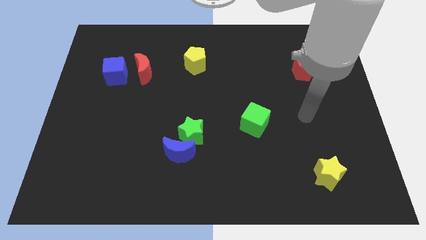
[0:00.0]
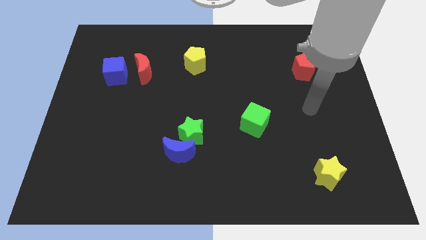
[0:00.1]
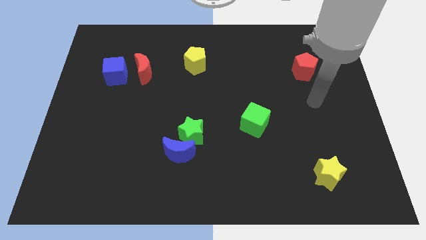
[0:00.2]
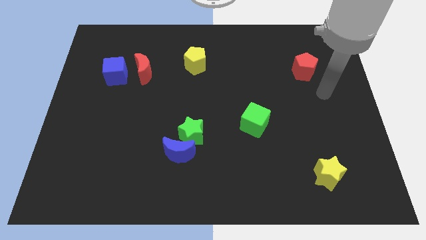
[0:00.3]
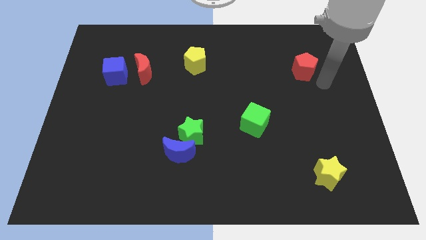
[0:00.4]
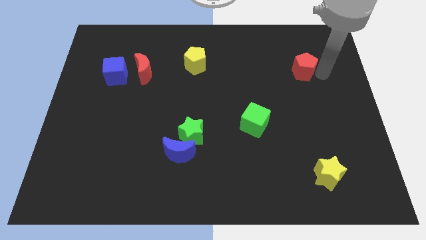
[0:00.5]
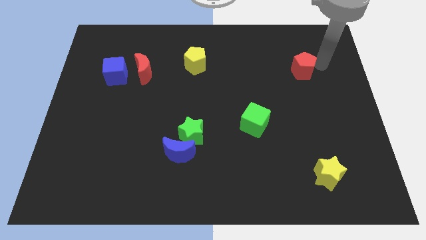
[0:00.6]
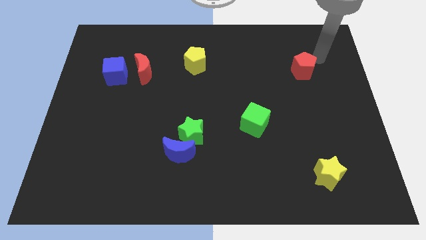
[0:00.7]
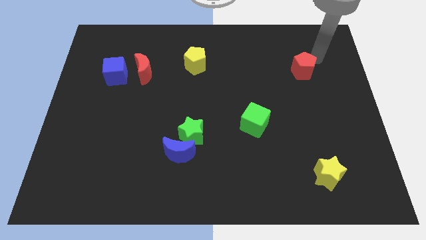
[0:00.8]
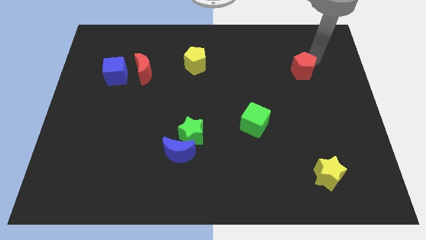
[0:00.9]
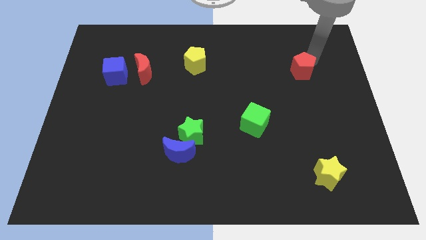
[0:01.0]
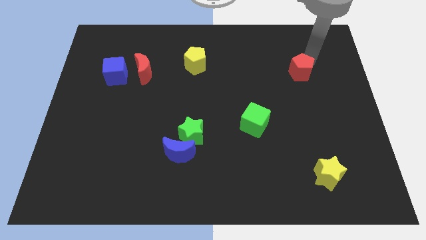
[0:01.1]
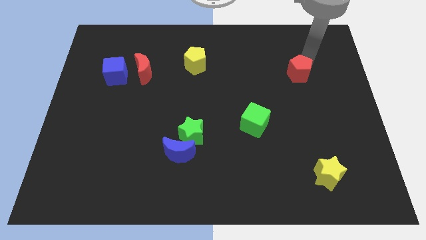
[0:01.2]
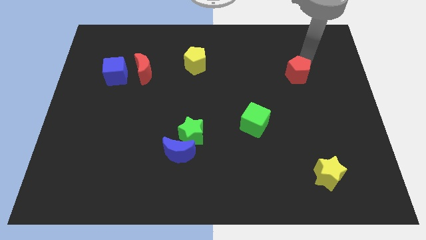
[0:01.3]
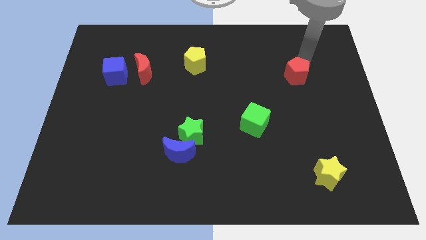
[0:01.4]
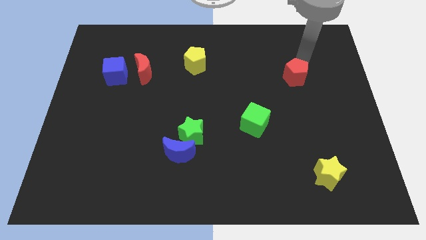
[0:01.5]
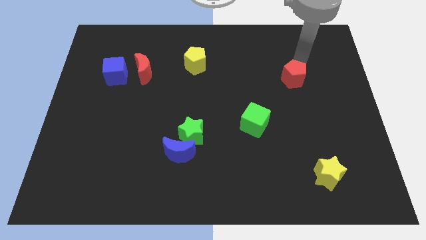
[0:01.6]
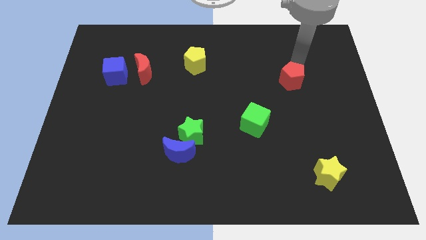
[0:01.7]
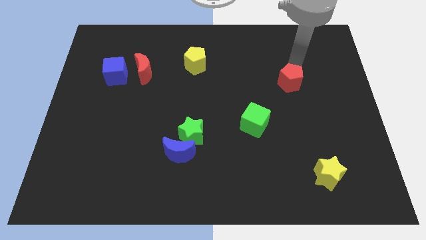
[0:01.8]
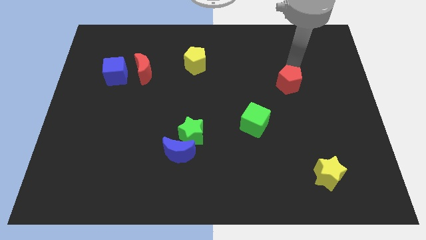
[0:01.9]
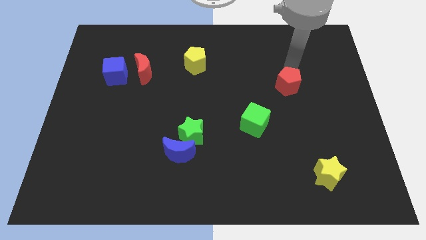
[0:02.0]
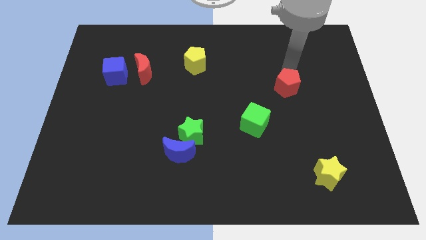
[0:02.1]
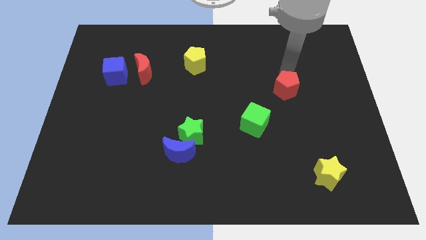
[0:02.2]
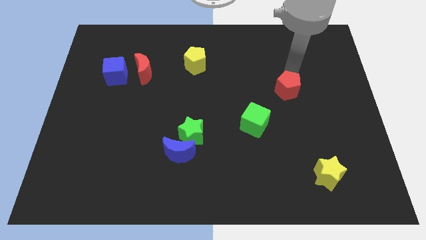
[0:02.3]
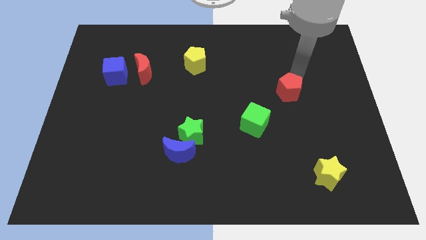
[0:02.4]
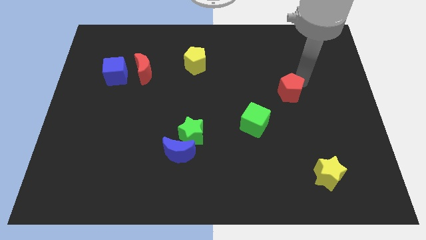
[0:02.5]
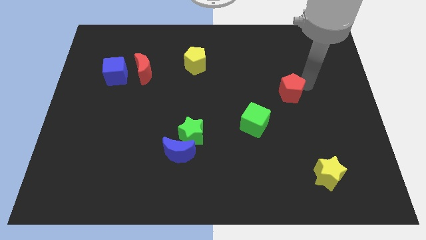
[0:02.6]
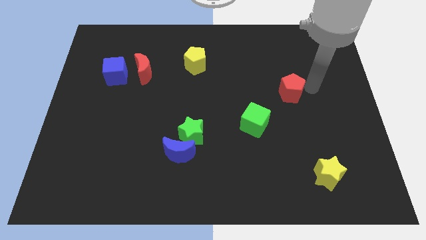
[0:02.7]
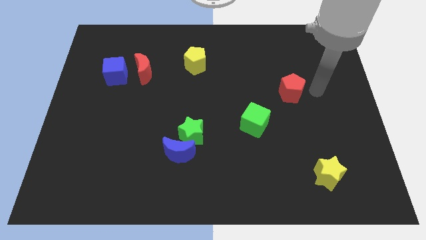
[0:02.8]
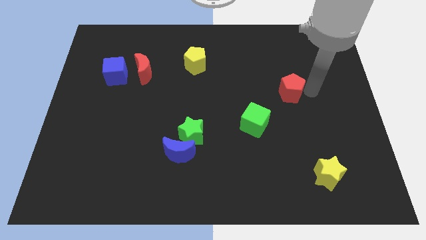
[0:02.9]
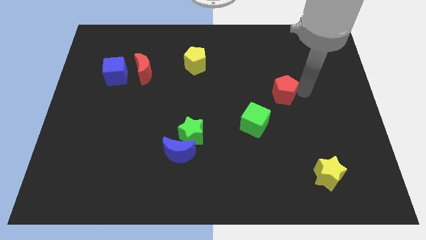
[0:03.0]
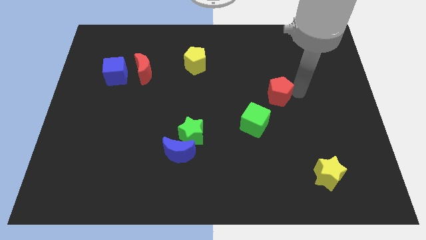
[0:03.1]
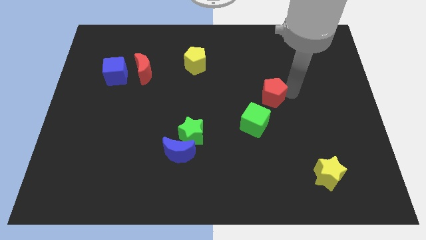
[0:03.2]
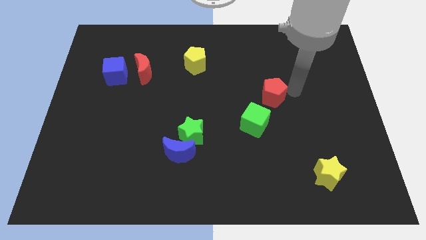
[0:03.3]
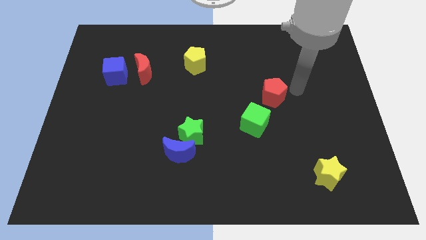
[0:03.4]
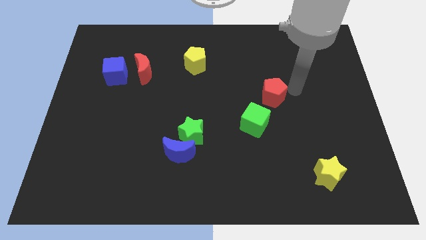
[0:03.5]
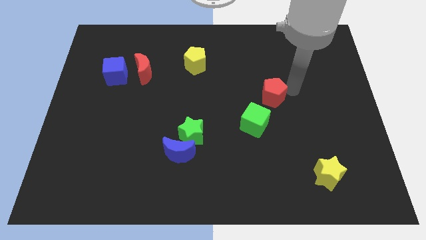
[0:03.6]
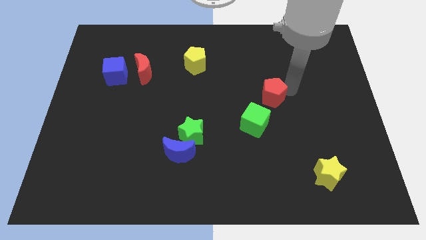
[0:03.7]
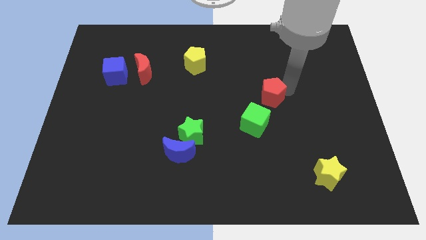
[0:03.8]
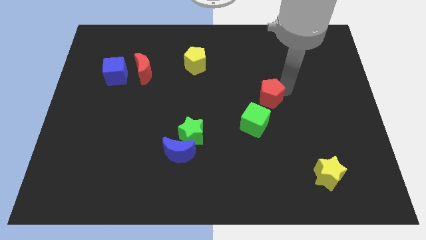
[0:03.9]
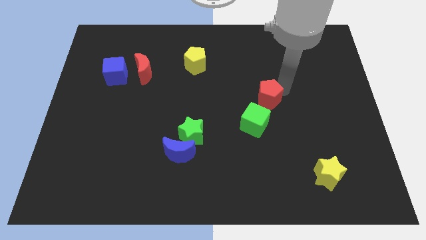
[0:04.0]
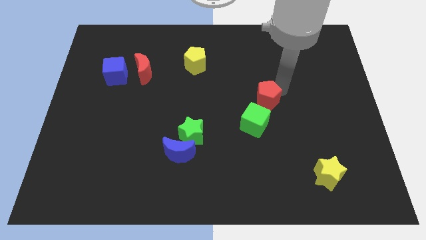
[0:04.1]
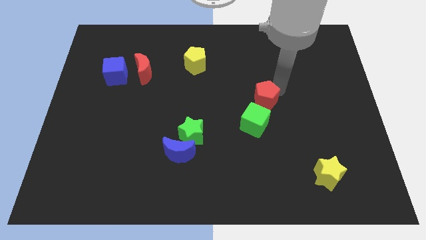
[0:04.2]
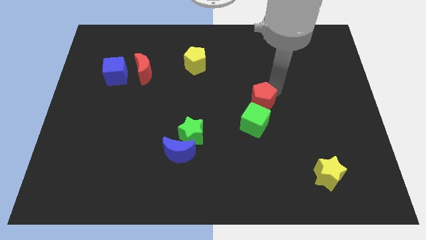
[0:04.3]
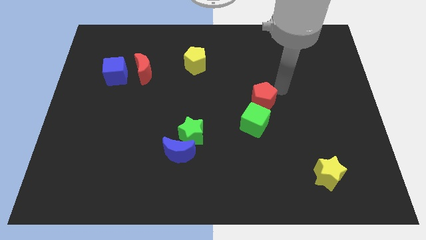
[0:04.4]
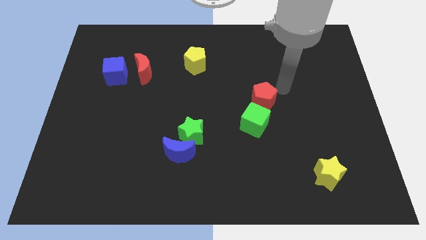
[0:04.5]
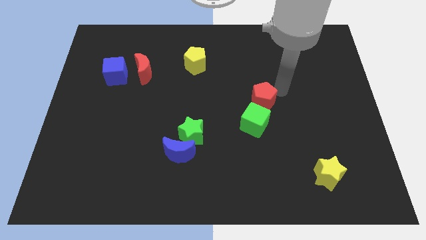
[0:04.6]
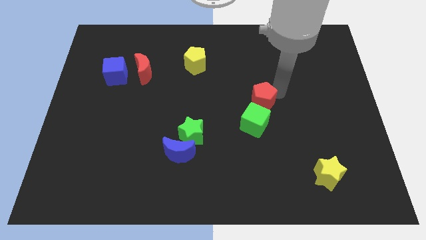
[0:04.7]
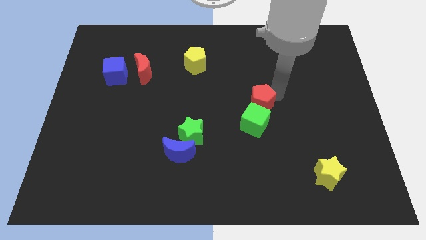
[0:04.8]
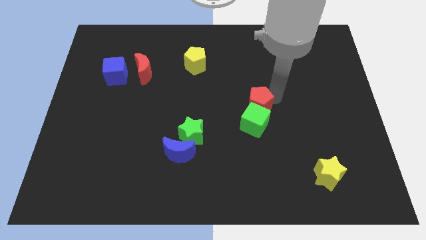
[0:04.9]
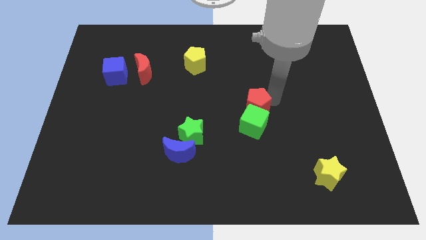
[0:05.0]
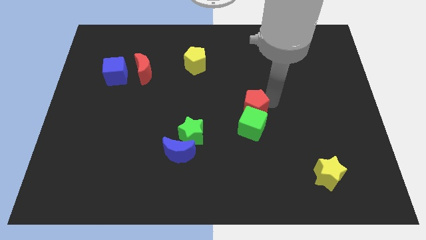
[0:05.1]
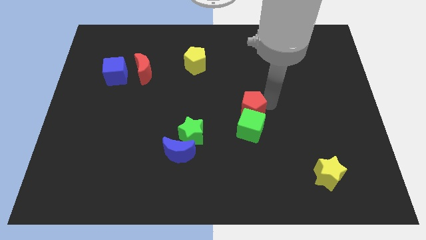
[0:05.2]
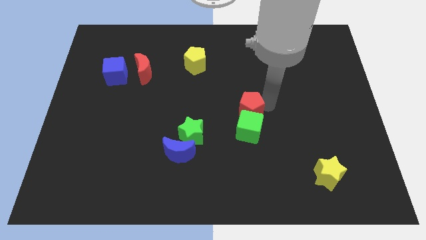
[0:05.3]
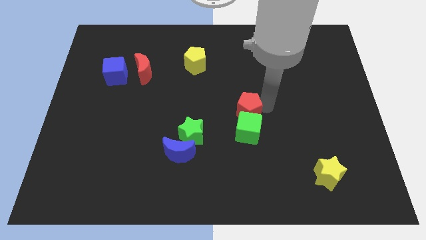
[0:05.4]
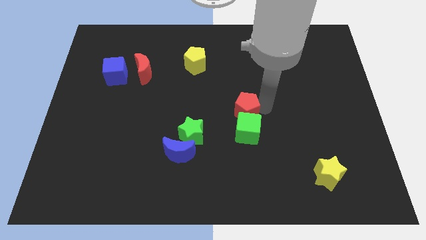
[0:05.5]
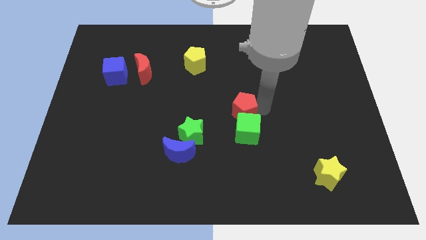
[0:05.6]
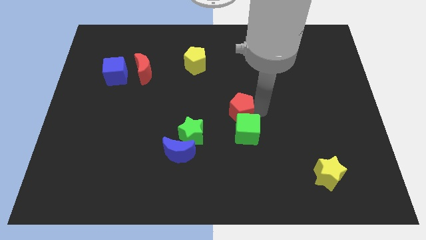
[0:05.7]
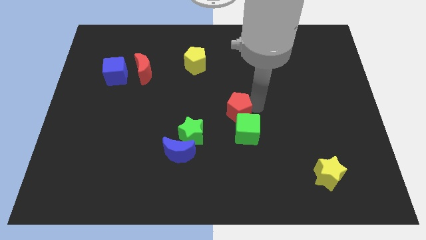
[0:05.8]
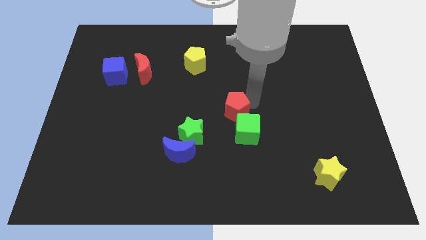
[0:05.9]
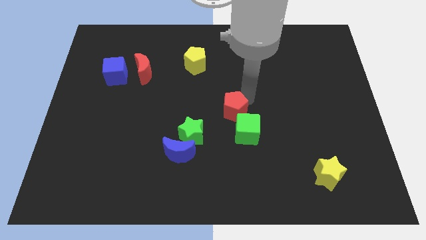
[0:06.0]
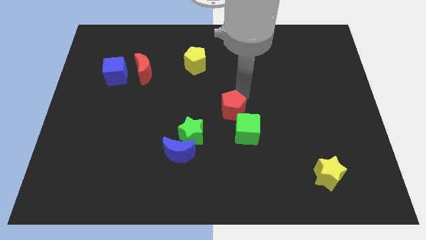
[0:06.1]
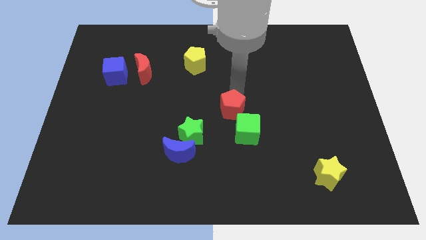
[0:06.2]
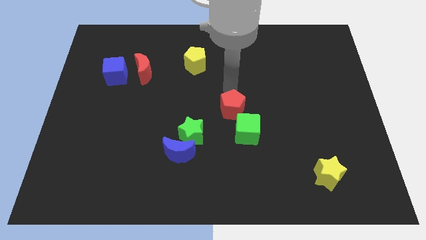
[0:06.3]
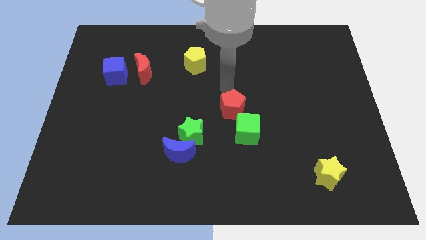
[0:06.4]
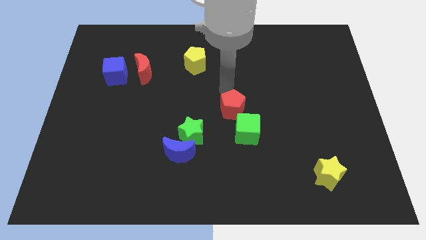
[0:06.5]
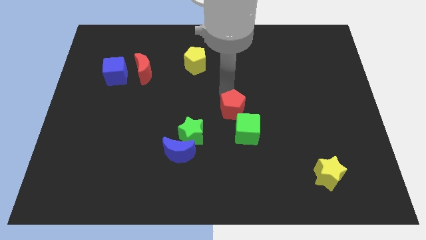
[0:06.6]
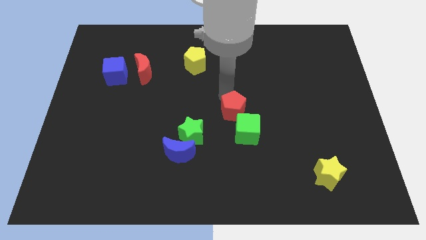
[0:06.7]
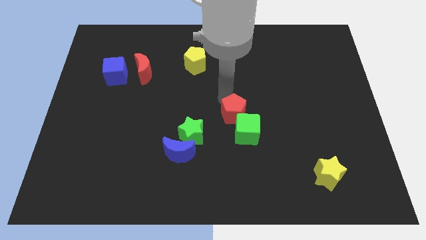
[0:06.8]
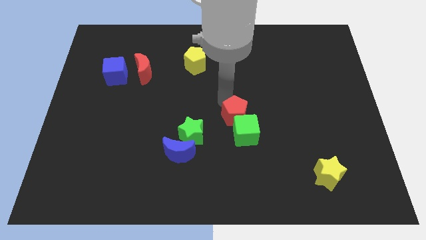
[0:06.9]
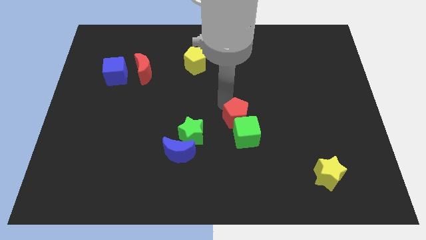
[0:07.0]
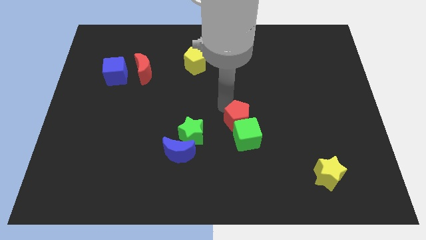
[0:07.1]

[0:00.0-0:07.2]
put the red pentagon right of the green star
